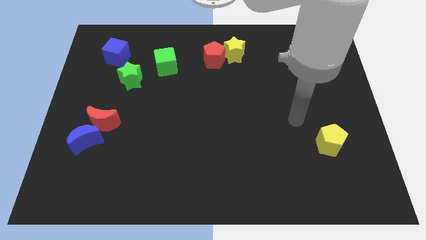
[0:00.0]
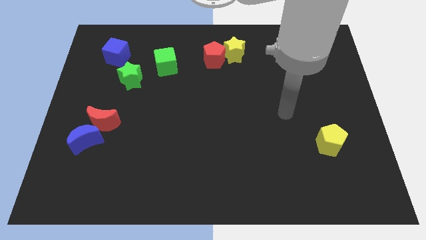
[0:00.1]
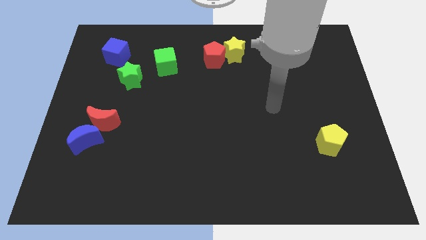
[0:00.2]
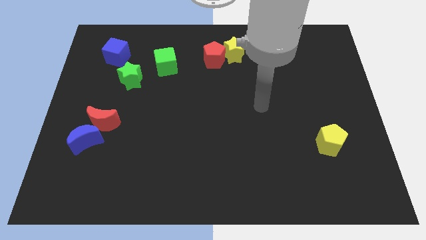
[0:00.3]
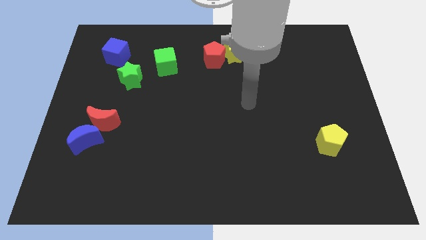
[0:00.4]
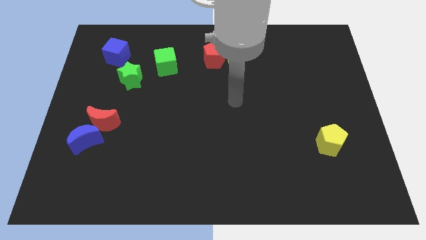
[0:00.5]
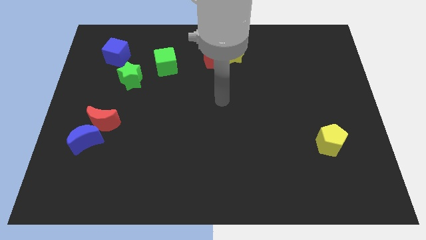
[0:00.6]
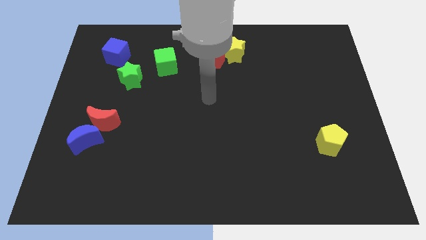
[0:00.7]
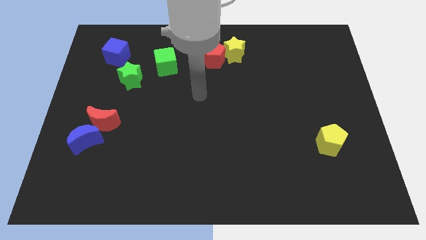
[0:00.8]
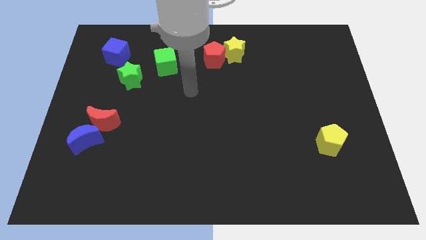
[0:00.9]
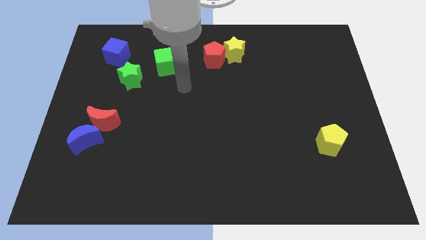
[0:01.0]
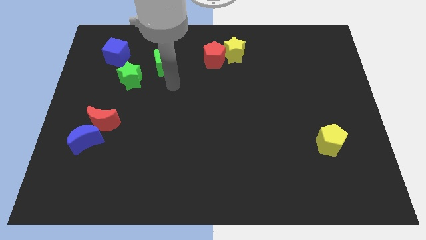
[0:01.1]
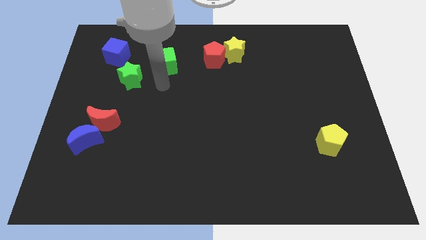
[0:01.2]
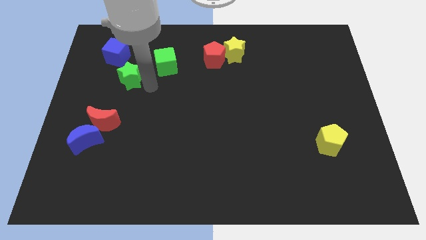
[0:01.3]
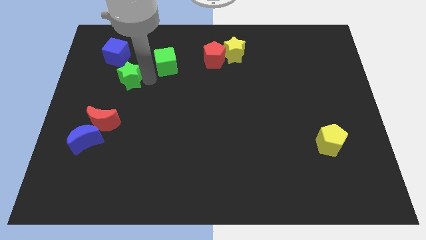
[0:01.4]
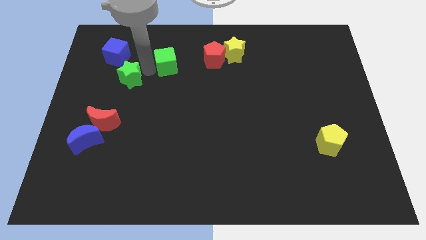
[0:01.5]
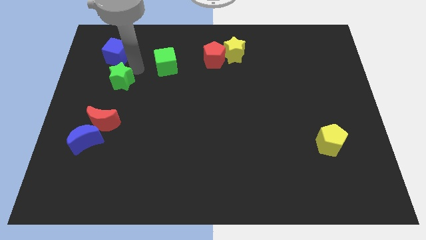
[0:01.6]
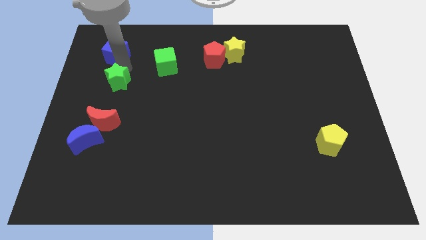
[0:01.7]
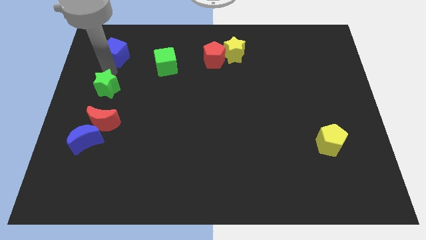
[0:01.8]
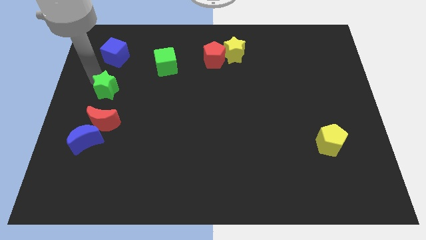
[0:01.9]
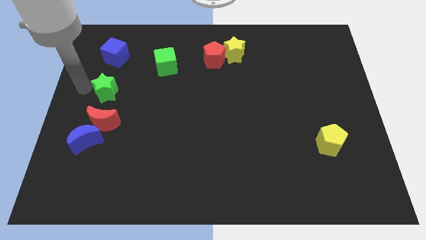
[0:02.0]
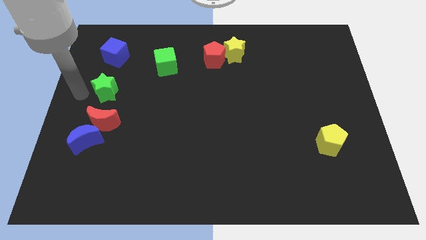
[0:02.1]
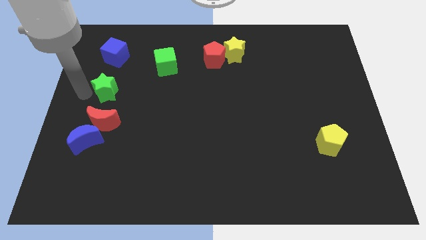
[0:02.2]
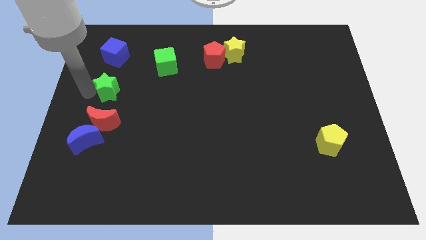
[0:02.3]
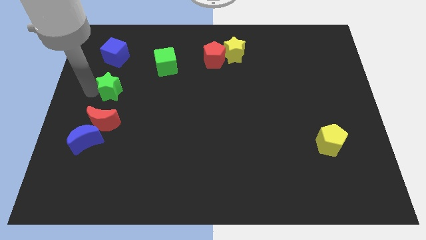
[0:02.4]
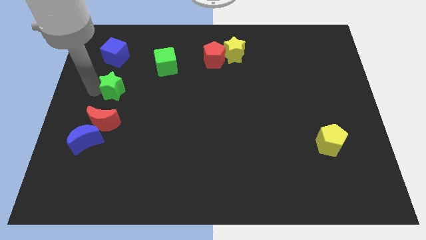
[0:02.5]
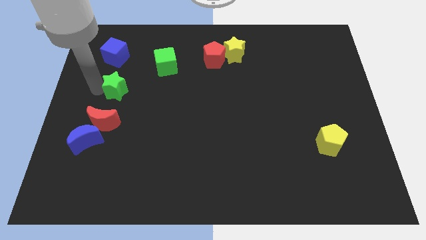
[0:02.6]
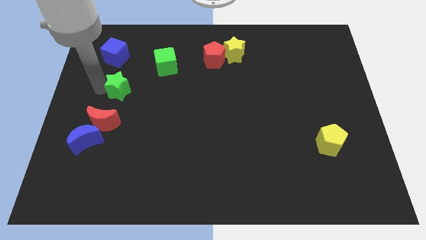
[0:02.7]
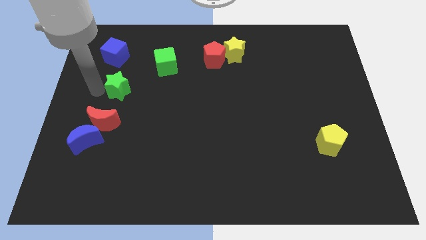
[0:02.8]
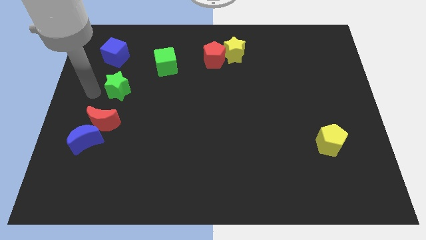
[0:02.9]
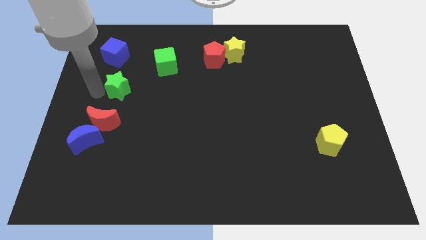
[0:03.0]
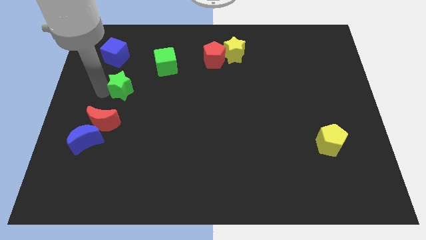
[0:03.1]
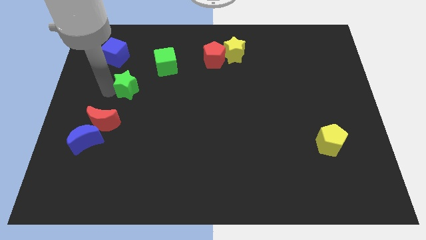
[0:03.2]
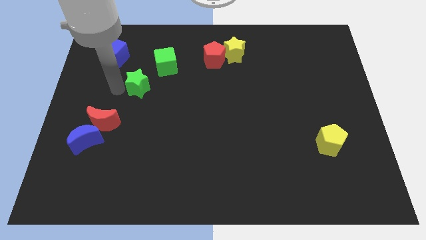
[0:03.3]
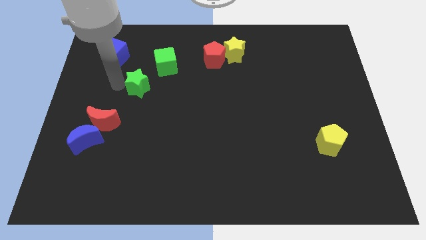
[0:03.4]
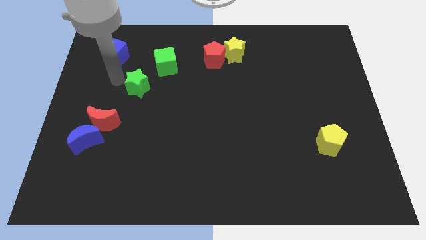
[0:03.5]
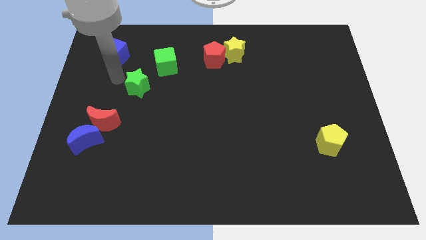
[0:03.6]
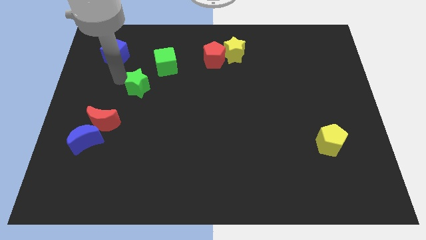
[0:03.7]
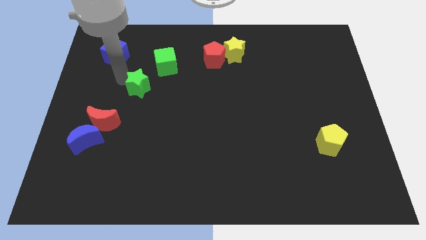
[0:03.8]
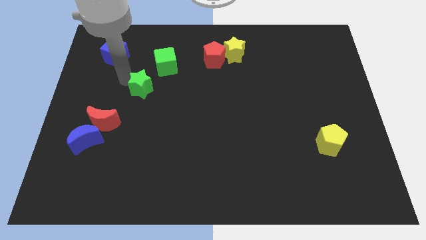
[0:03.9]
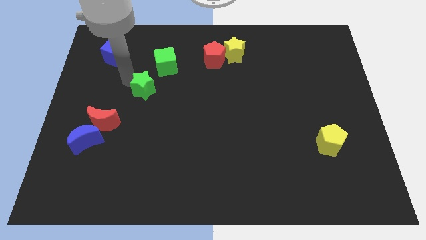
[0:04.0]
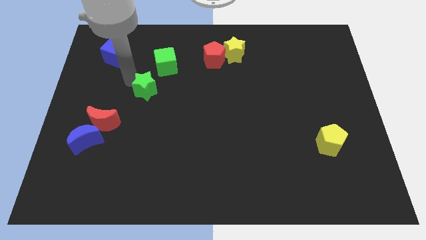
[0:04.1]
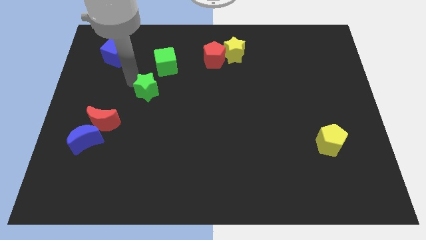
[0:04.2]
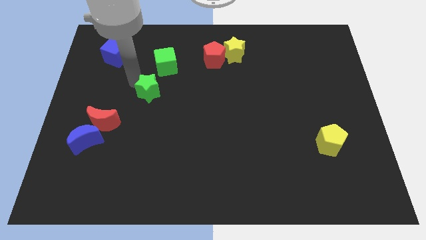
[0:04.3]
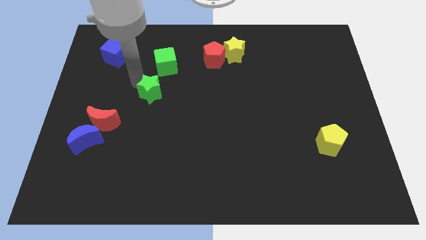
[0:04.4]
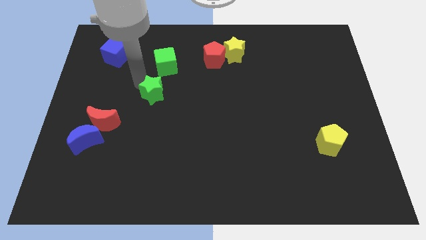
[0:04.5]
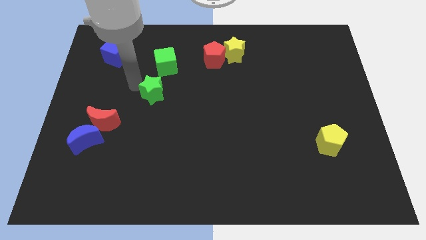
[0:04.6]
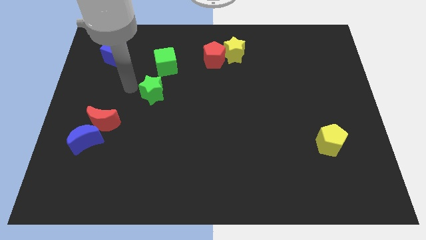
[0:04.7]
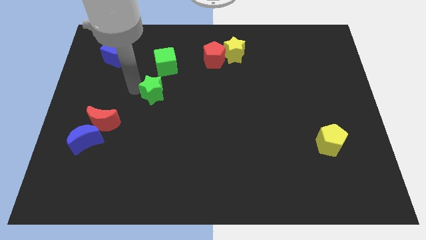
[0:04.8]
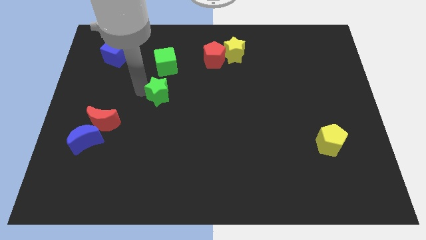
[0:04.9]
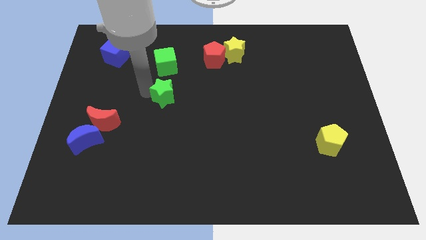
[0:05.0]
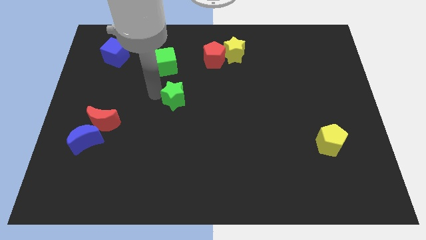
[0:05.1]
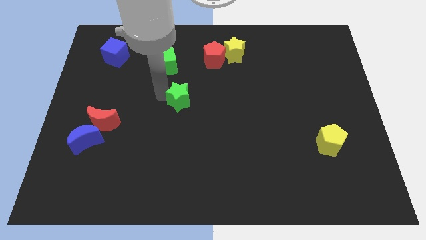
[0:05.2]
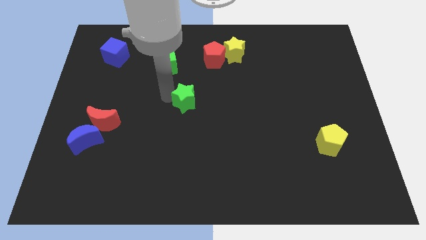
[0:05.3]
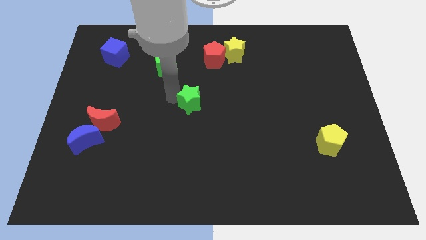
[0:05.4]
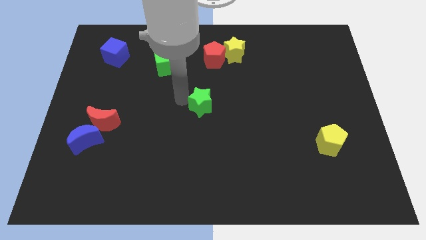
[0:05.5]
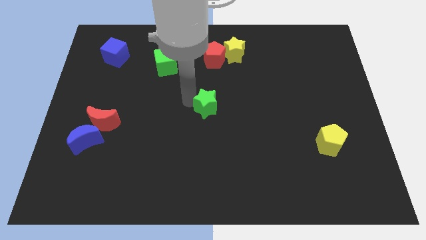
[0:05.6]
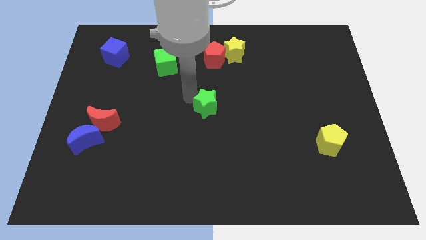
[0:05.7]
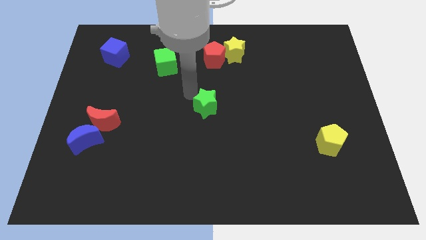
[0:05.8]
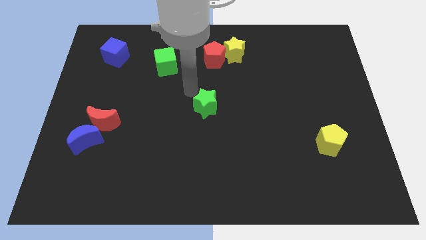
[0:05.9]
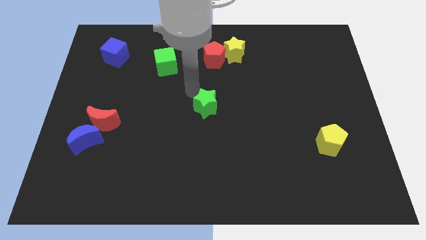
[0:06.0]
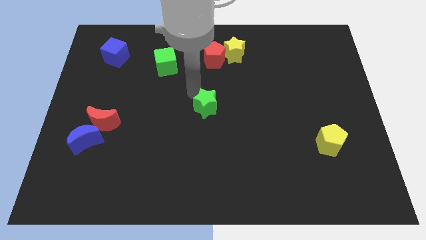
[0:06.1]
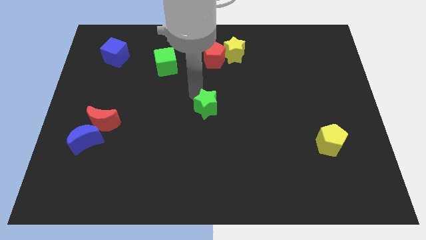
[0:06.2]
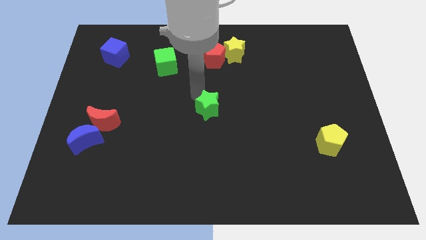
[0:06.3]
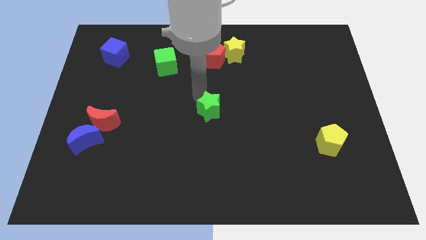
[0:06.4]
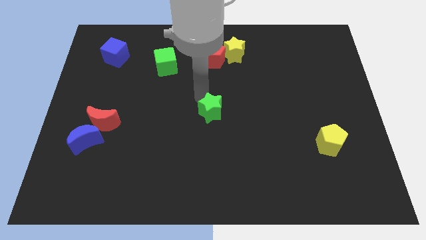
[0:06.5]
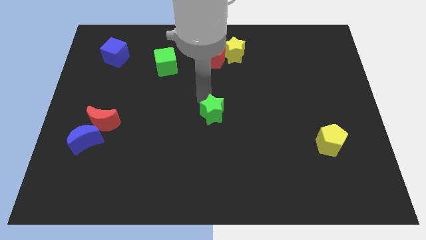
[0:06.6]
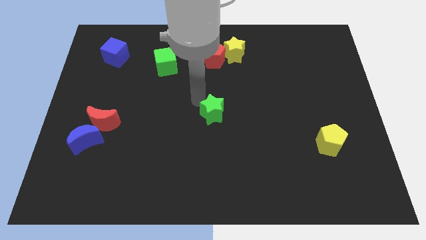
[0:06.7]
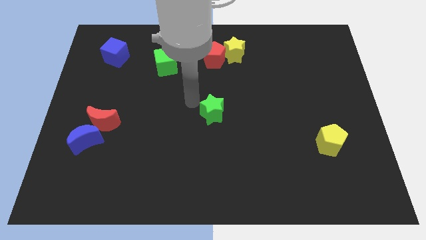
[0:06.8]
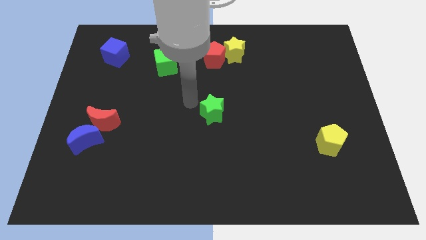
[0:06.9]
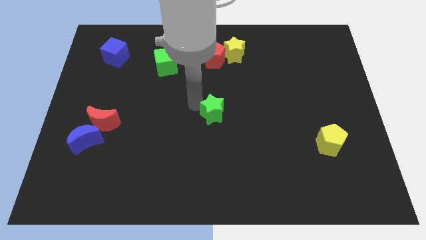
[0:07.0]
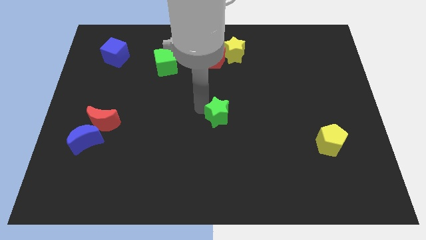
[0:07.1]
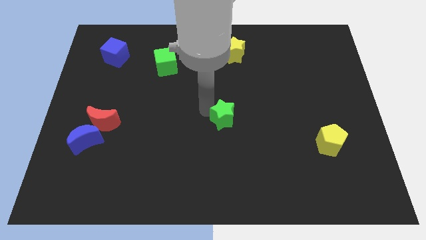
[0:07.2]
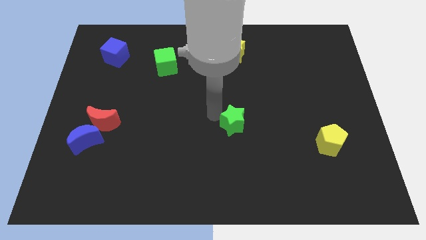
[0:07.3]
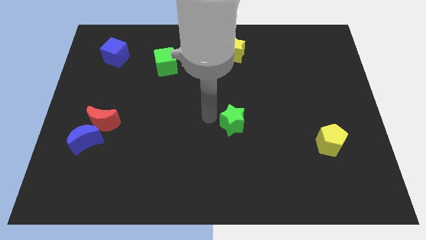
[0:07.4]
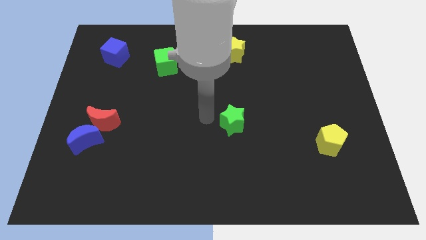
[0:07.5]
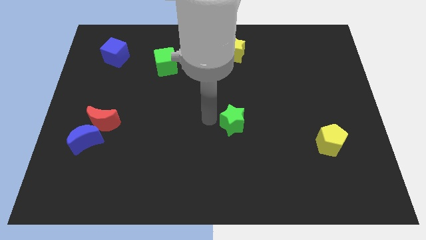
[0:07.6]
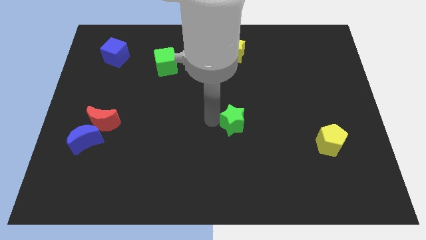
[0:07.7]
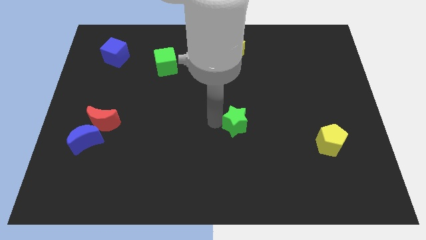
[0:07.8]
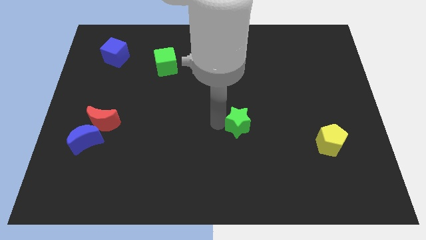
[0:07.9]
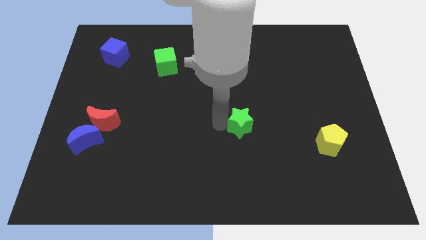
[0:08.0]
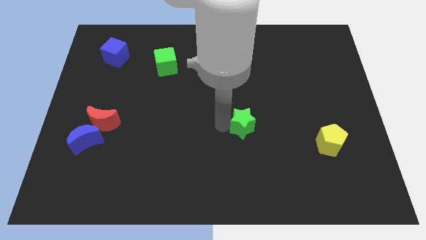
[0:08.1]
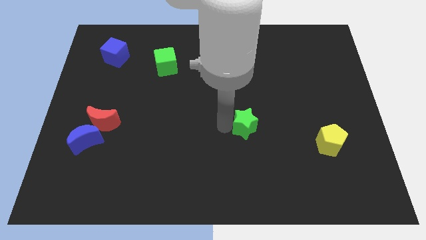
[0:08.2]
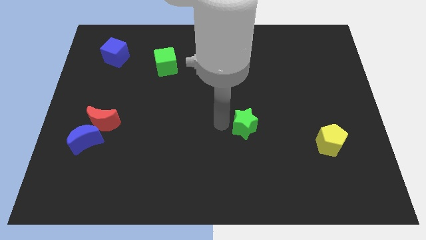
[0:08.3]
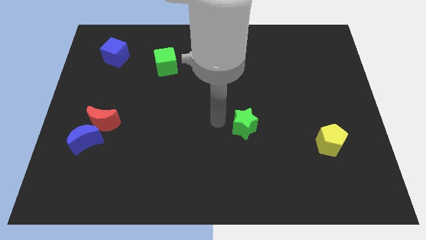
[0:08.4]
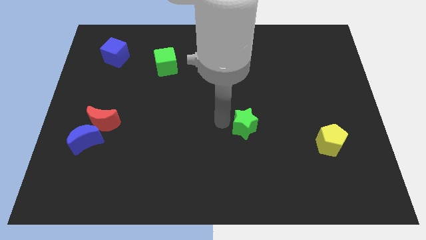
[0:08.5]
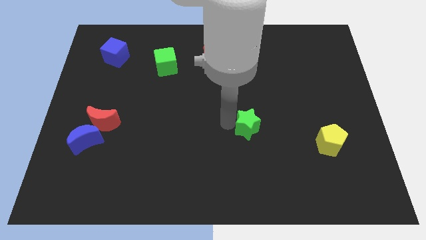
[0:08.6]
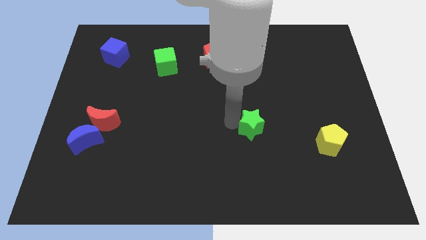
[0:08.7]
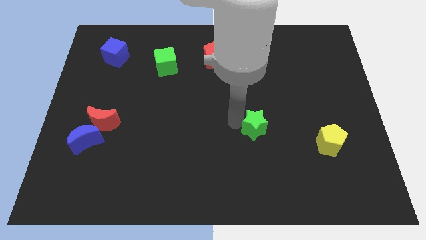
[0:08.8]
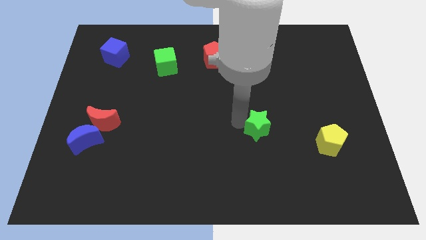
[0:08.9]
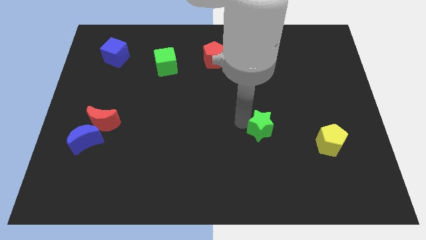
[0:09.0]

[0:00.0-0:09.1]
put the green star to the left side of the yellow pentagon
